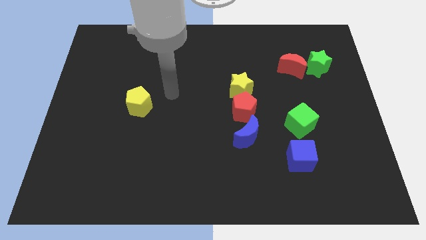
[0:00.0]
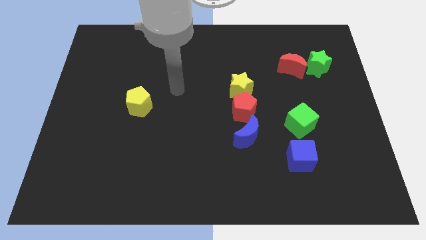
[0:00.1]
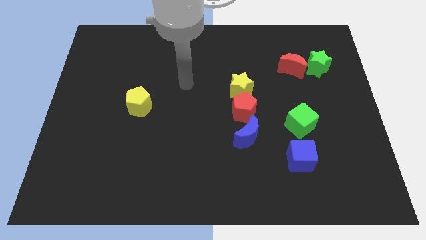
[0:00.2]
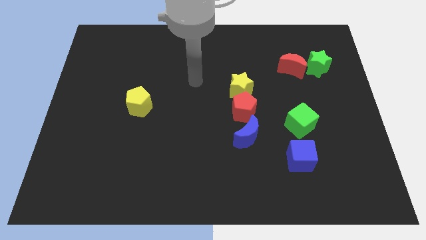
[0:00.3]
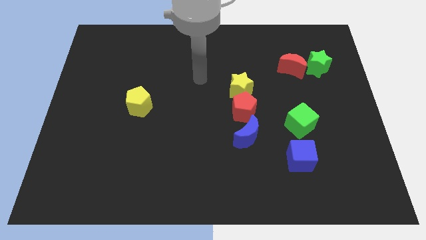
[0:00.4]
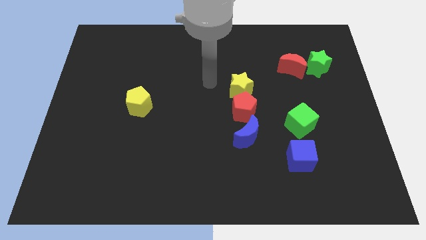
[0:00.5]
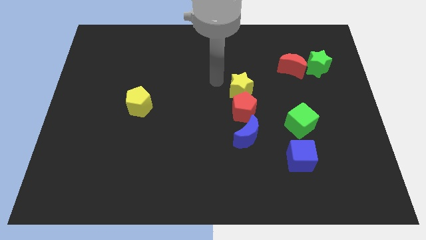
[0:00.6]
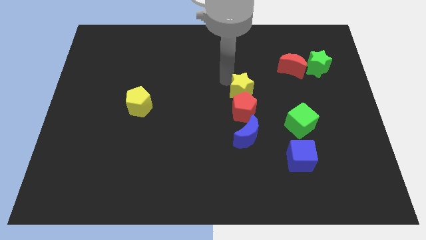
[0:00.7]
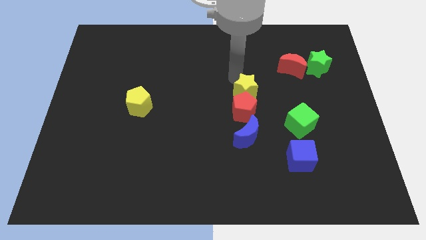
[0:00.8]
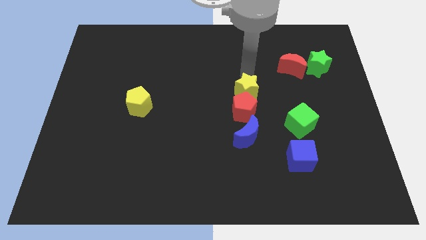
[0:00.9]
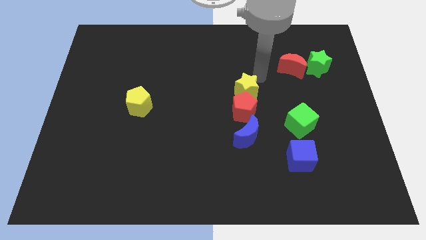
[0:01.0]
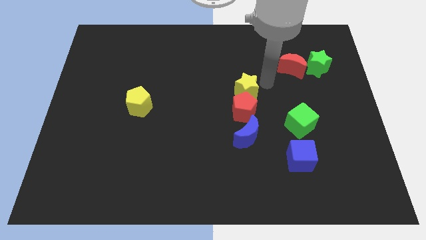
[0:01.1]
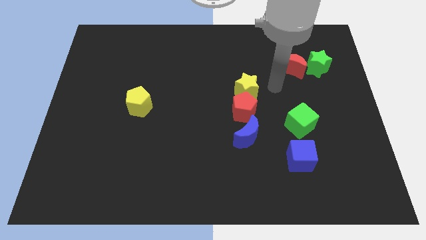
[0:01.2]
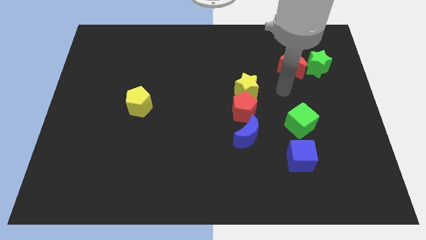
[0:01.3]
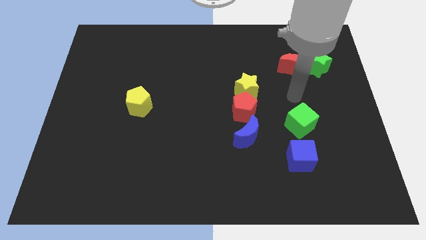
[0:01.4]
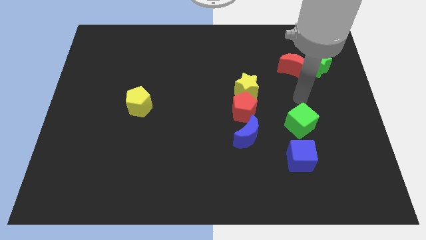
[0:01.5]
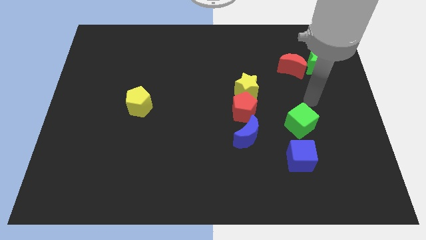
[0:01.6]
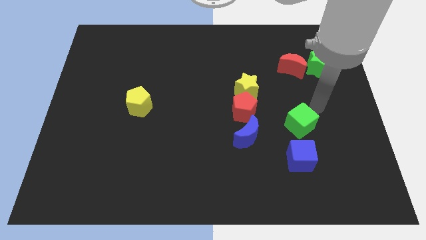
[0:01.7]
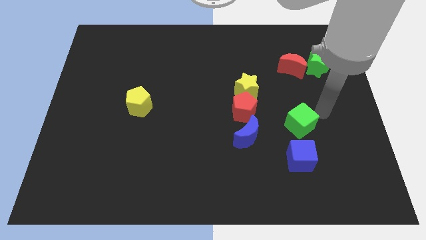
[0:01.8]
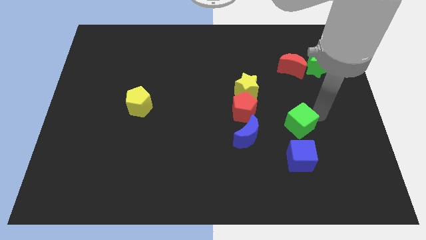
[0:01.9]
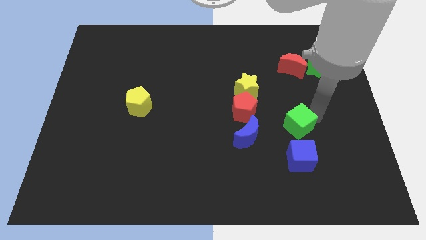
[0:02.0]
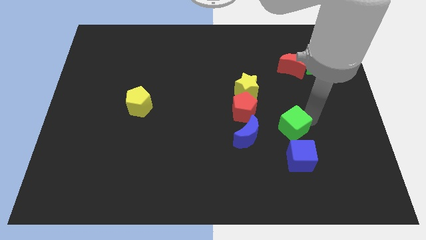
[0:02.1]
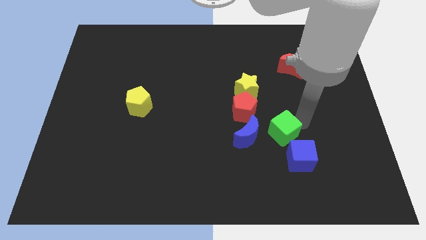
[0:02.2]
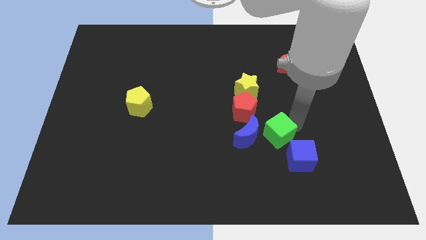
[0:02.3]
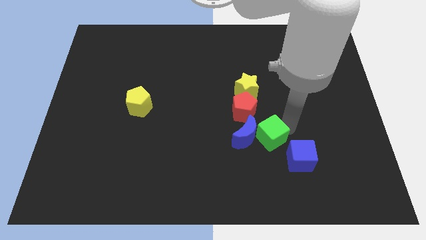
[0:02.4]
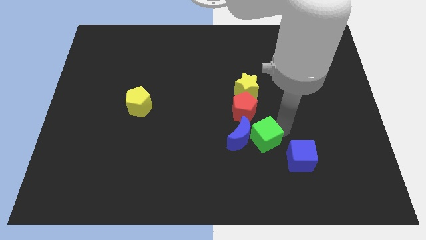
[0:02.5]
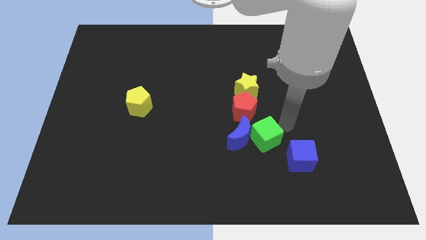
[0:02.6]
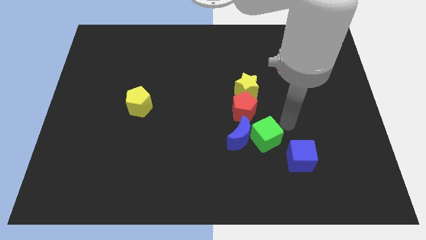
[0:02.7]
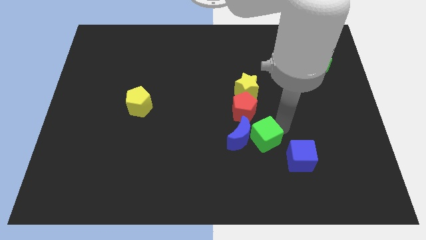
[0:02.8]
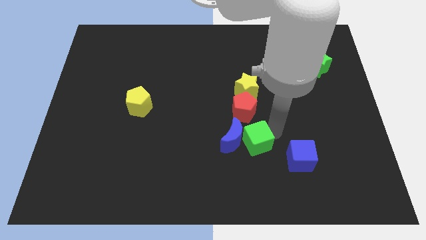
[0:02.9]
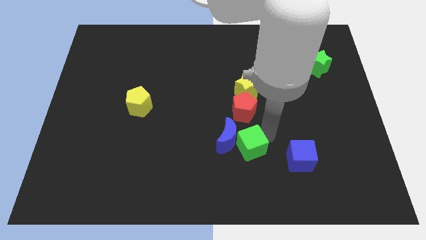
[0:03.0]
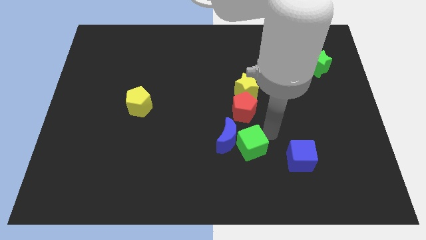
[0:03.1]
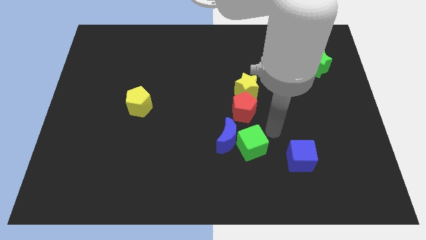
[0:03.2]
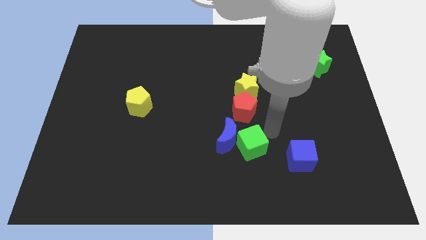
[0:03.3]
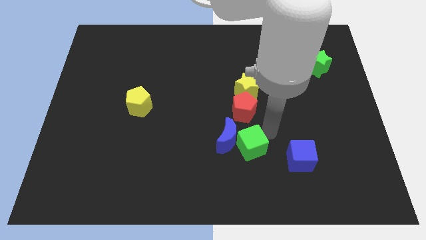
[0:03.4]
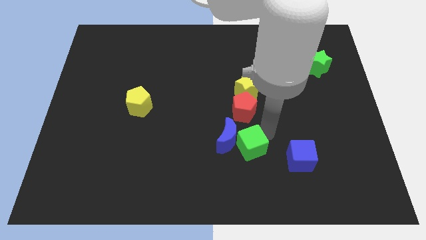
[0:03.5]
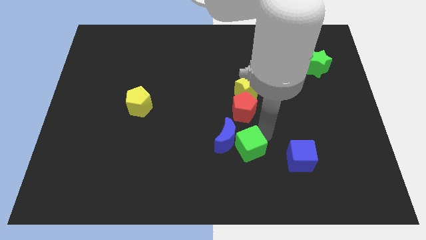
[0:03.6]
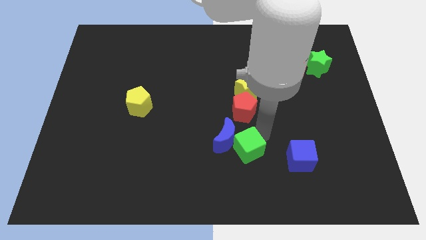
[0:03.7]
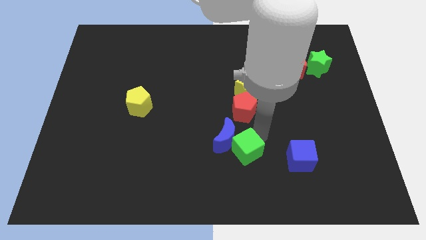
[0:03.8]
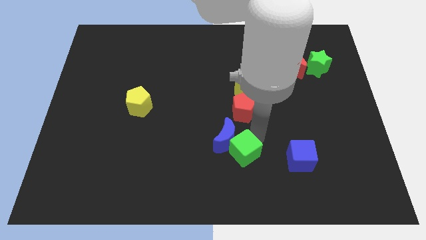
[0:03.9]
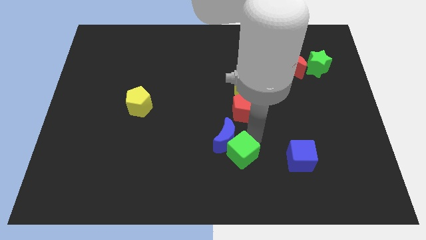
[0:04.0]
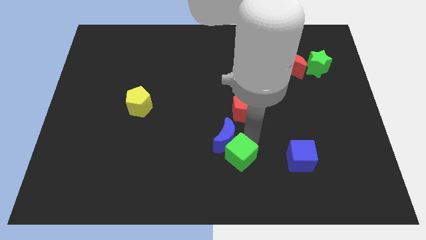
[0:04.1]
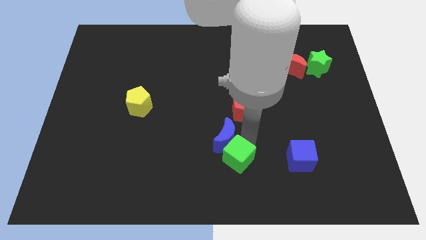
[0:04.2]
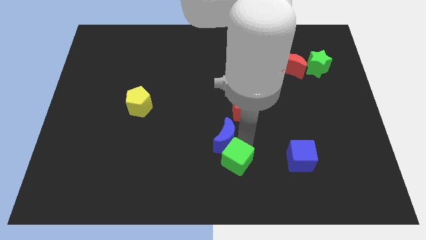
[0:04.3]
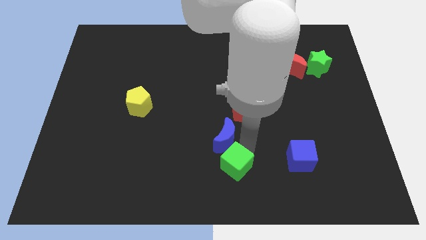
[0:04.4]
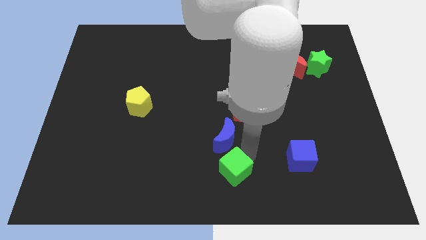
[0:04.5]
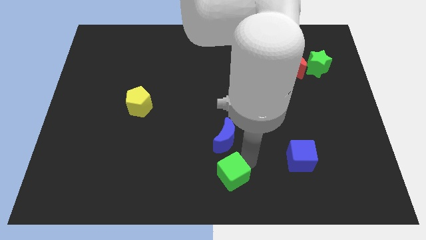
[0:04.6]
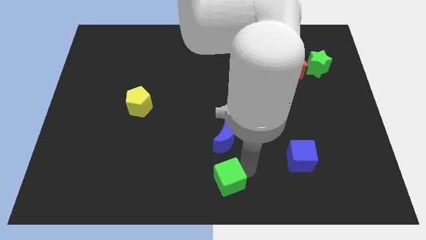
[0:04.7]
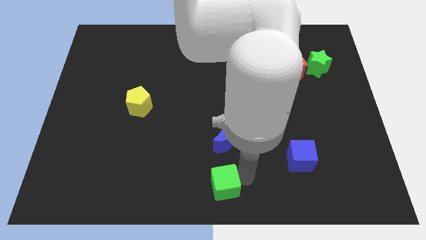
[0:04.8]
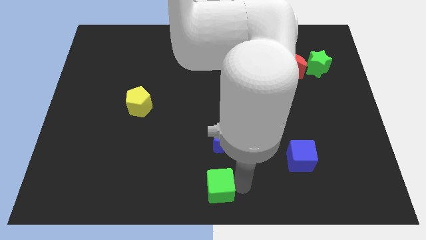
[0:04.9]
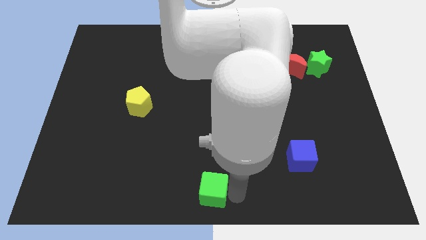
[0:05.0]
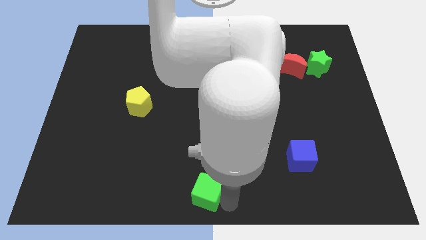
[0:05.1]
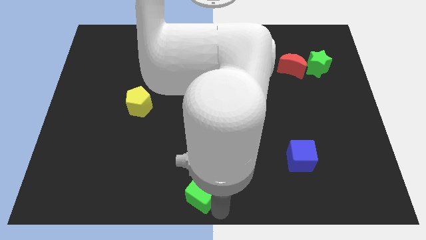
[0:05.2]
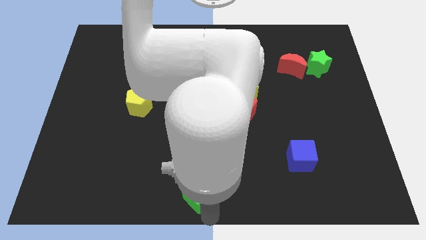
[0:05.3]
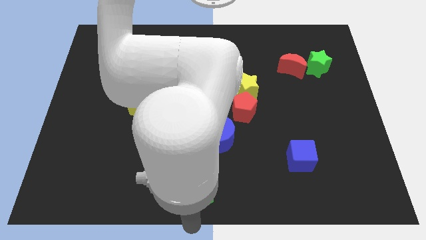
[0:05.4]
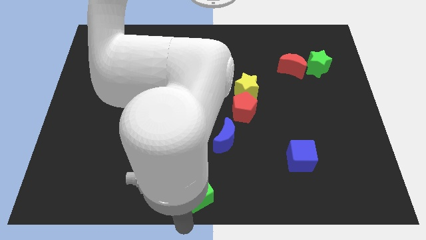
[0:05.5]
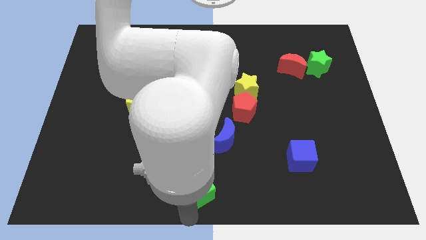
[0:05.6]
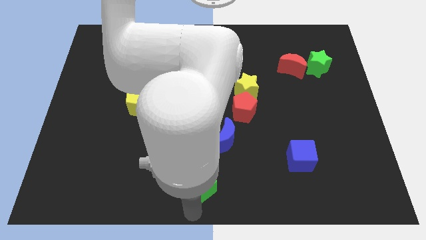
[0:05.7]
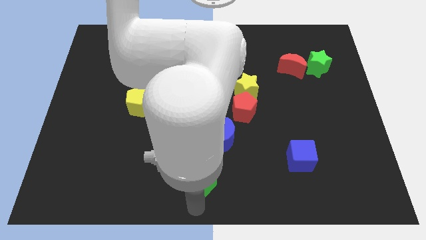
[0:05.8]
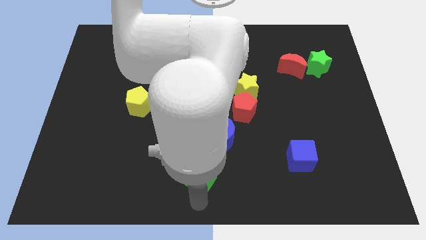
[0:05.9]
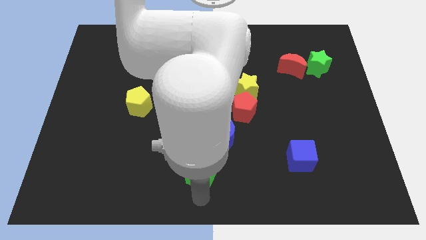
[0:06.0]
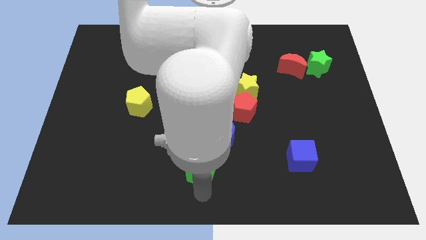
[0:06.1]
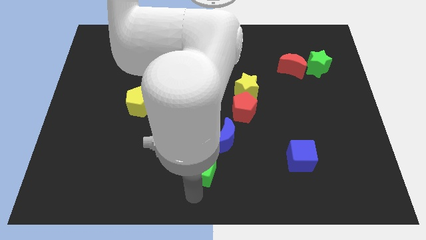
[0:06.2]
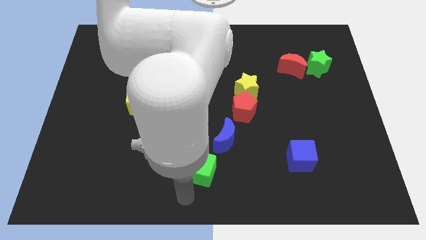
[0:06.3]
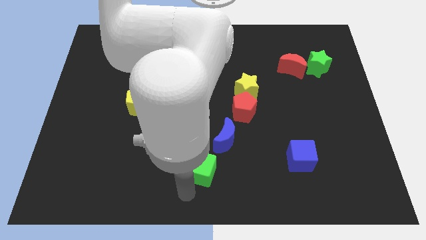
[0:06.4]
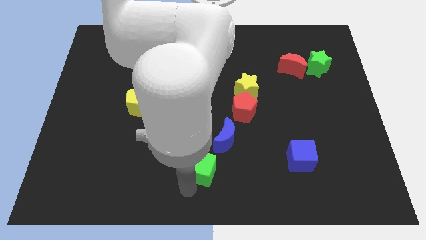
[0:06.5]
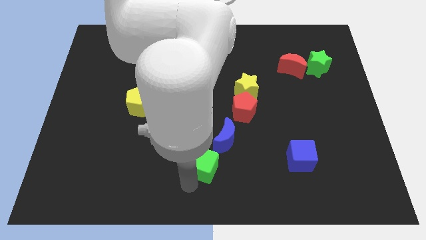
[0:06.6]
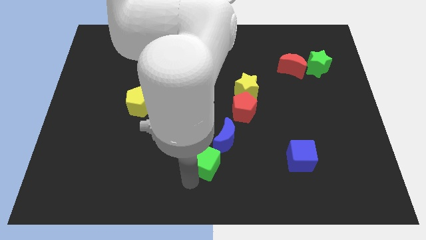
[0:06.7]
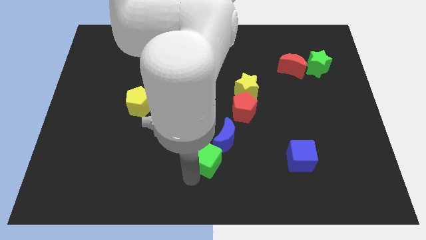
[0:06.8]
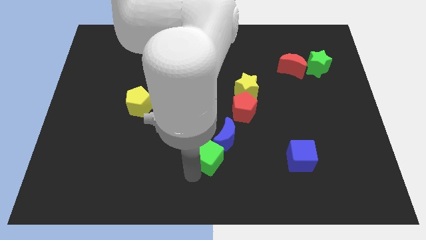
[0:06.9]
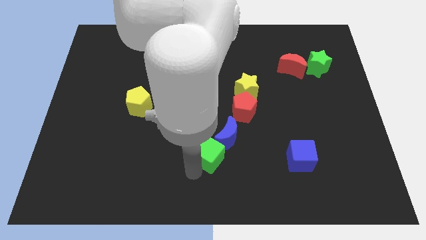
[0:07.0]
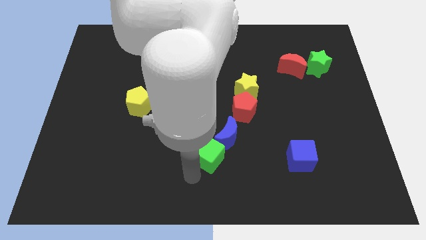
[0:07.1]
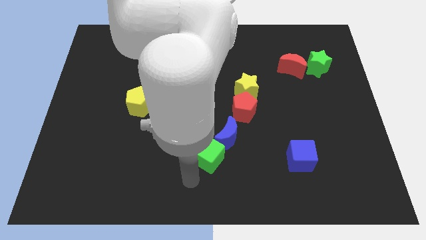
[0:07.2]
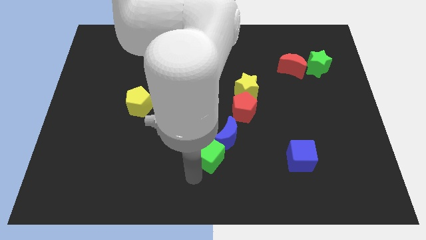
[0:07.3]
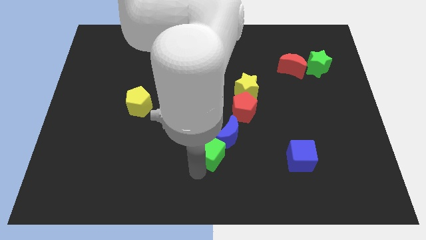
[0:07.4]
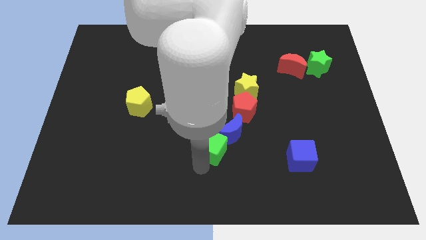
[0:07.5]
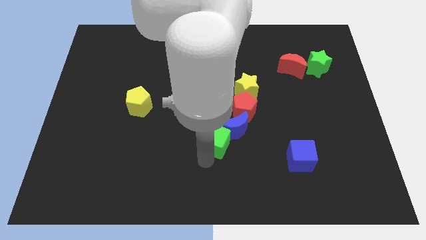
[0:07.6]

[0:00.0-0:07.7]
slide the green cube diagonally down and to the left of the red pentagon
